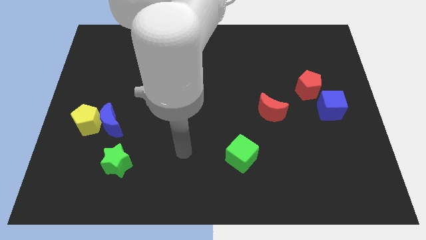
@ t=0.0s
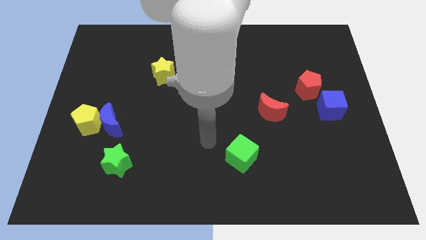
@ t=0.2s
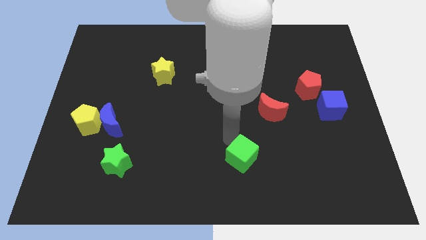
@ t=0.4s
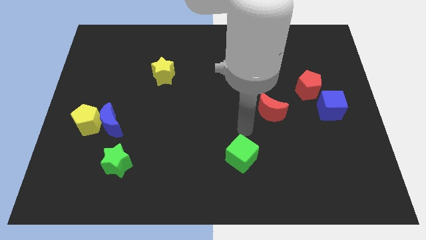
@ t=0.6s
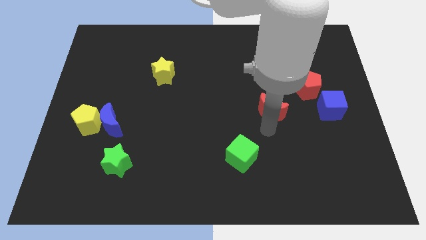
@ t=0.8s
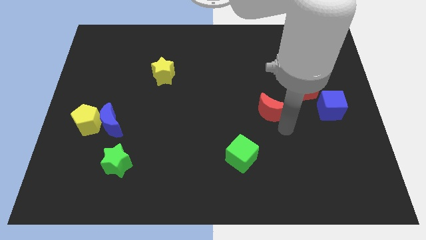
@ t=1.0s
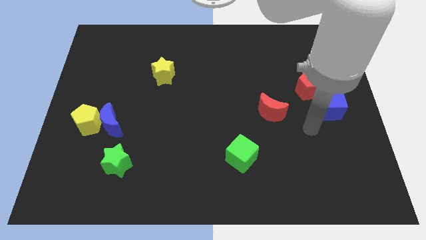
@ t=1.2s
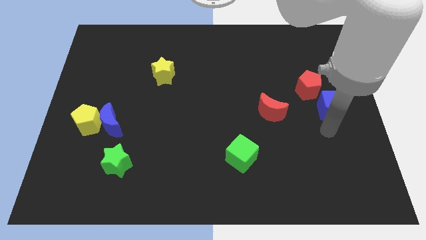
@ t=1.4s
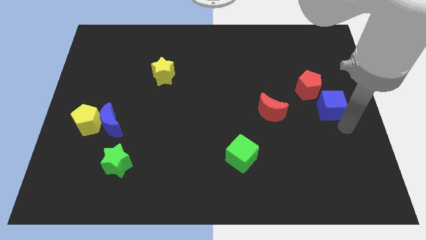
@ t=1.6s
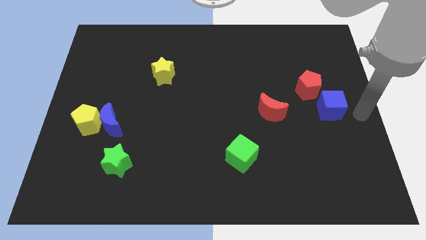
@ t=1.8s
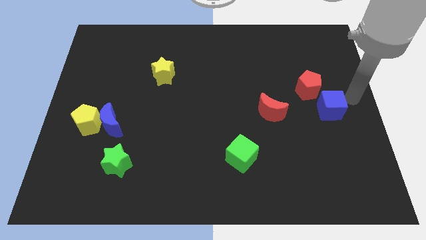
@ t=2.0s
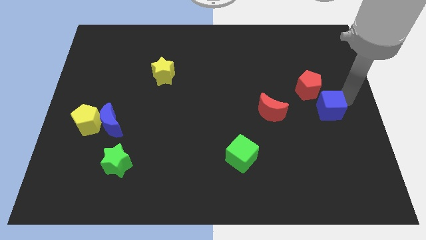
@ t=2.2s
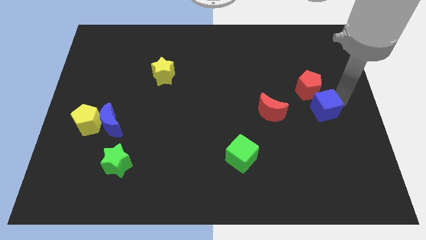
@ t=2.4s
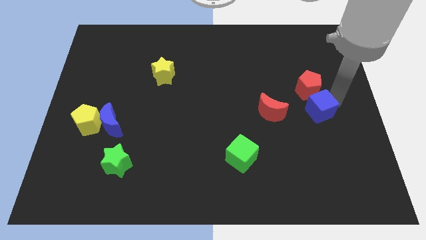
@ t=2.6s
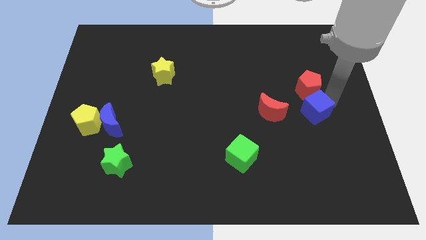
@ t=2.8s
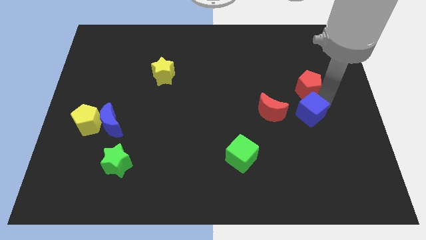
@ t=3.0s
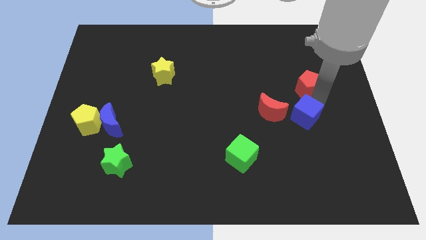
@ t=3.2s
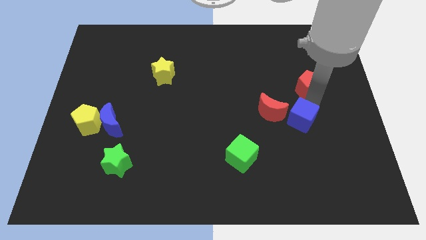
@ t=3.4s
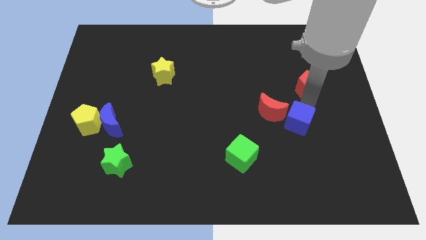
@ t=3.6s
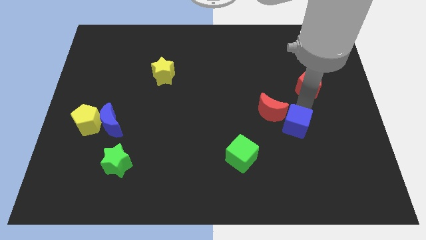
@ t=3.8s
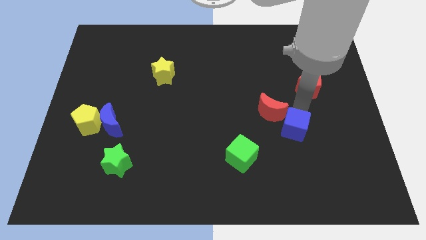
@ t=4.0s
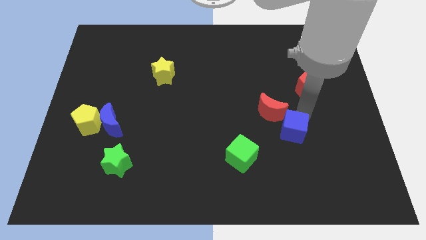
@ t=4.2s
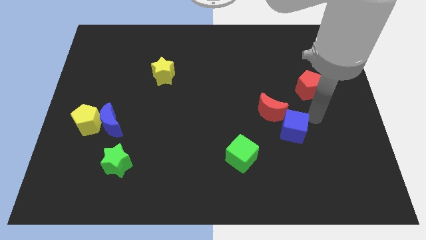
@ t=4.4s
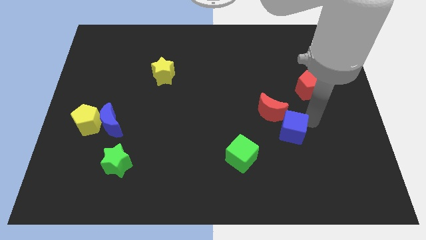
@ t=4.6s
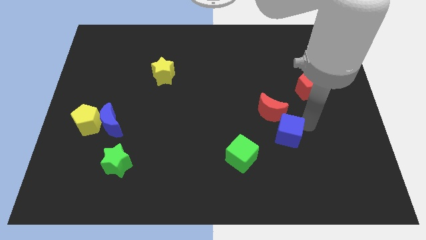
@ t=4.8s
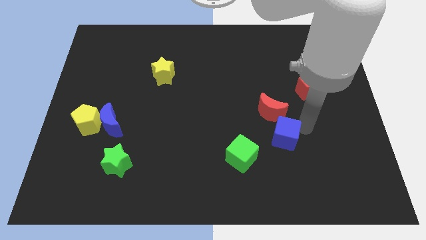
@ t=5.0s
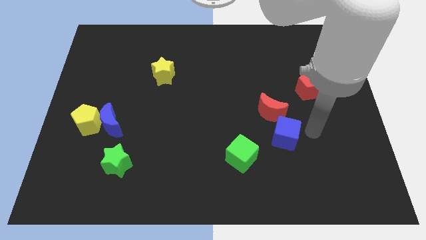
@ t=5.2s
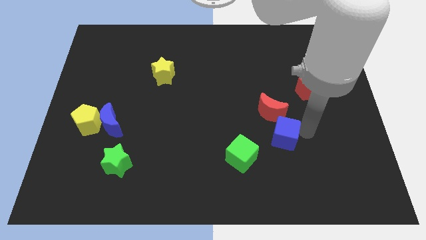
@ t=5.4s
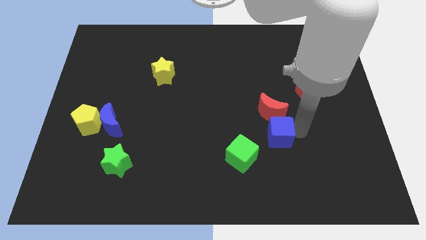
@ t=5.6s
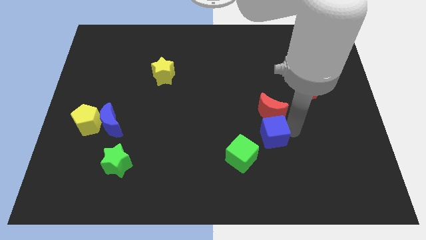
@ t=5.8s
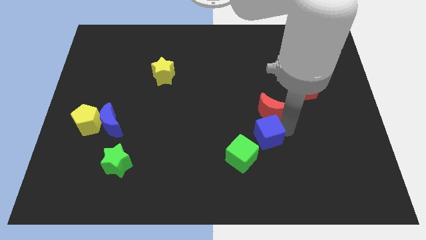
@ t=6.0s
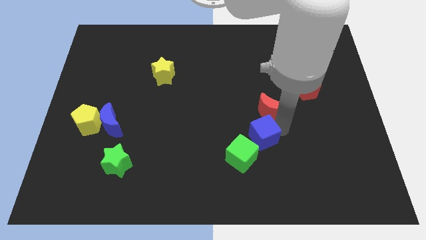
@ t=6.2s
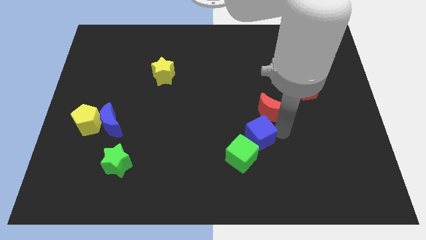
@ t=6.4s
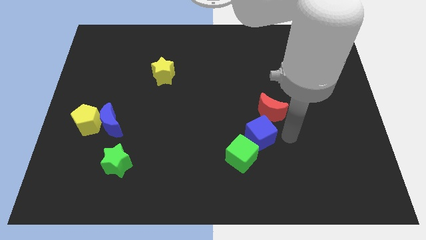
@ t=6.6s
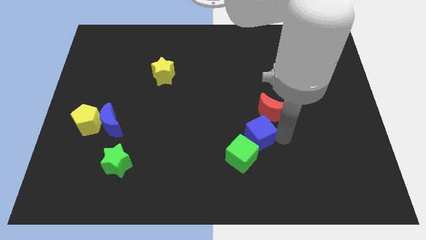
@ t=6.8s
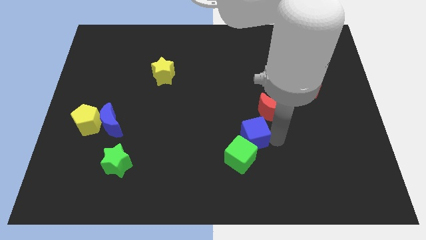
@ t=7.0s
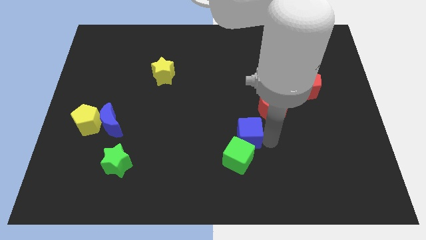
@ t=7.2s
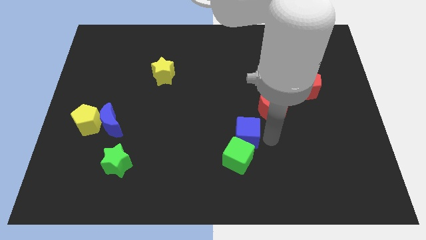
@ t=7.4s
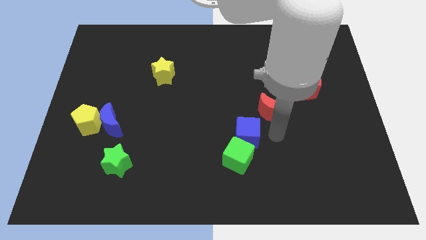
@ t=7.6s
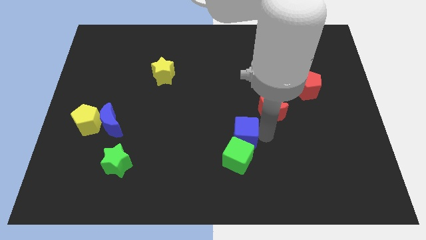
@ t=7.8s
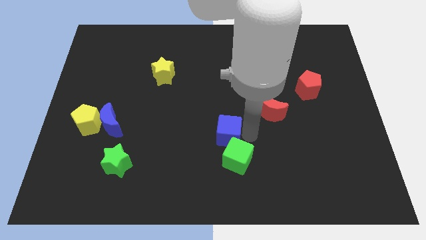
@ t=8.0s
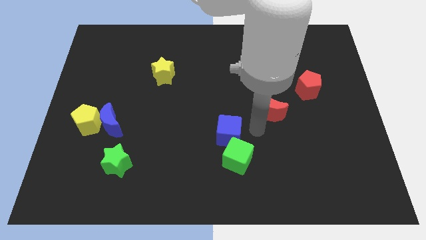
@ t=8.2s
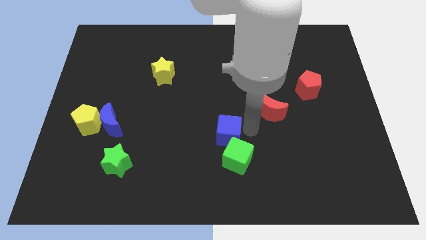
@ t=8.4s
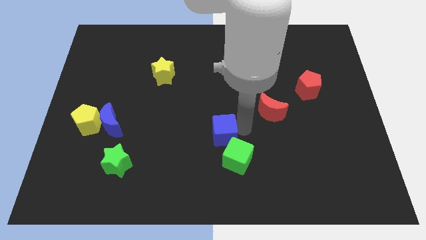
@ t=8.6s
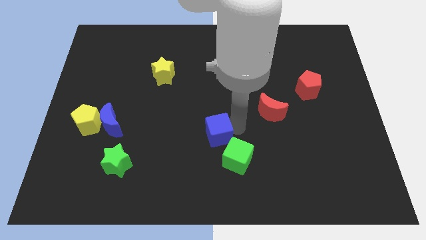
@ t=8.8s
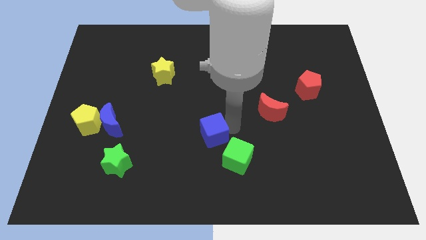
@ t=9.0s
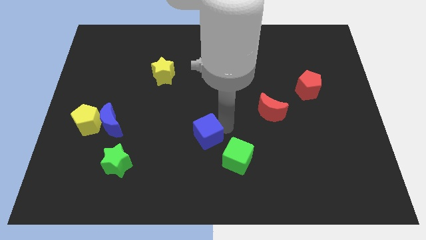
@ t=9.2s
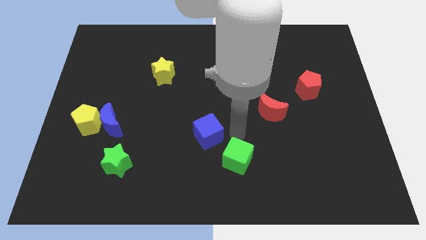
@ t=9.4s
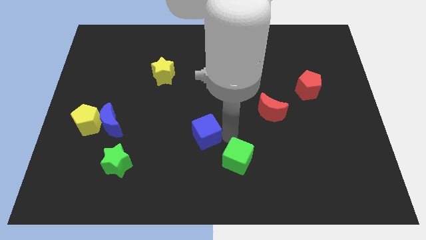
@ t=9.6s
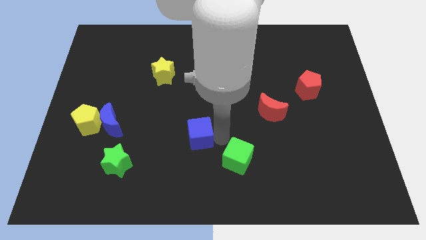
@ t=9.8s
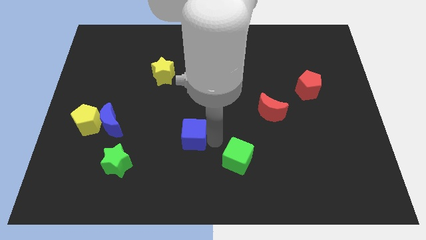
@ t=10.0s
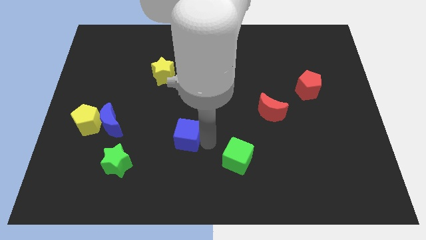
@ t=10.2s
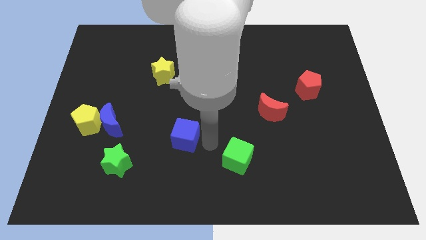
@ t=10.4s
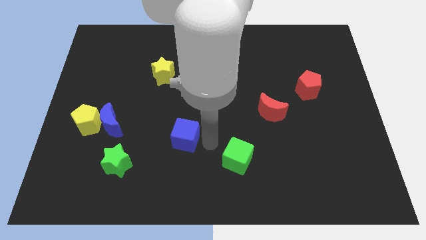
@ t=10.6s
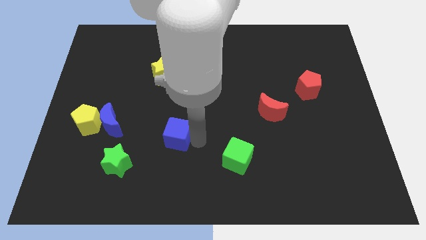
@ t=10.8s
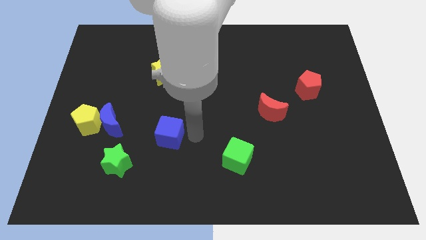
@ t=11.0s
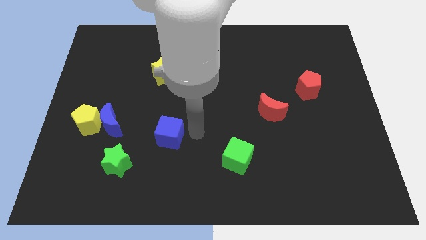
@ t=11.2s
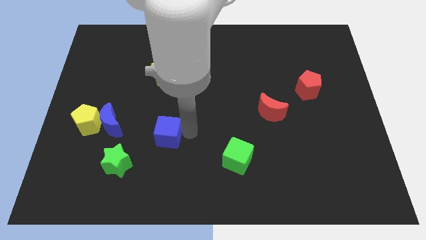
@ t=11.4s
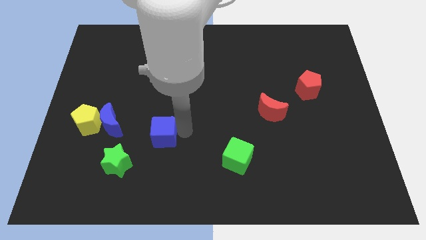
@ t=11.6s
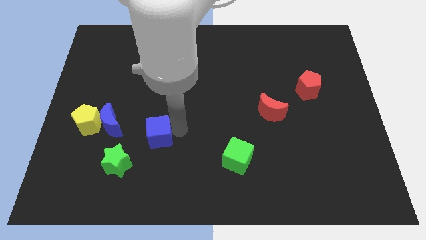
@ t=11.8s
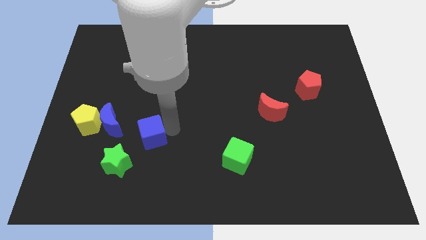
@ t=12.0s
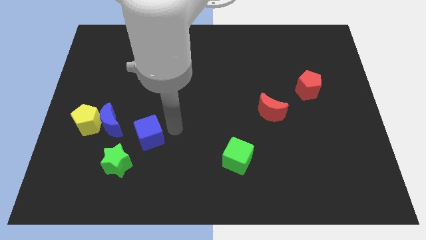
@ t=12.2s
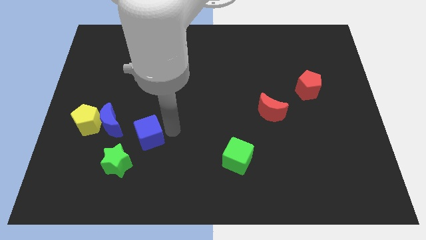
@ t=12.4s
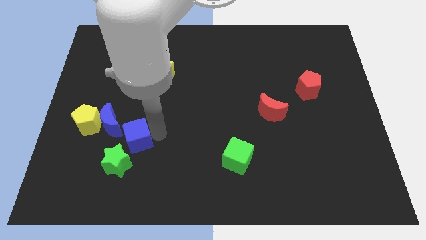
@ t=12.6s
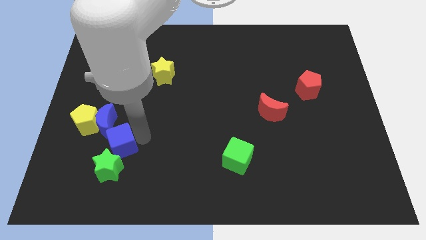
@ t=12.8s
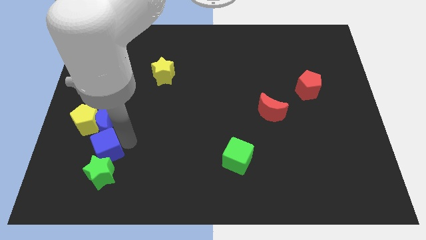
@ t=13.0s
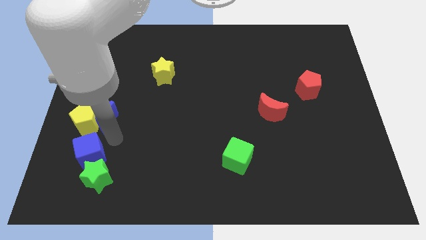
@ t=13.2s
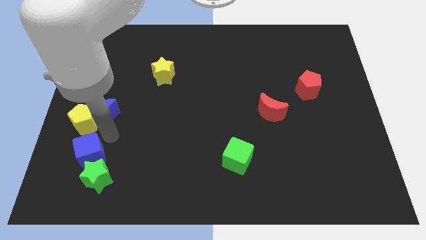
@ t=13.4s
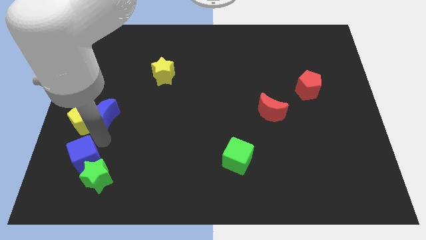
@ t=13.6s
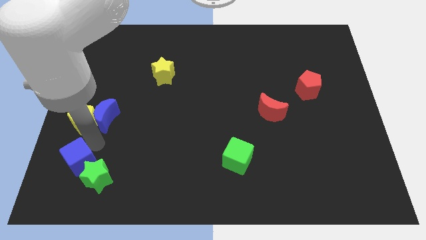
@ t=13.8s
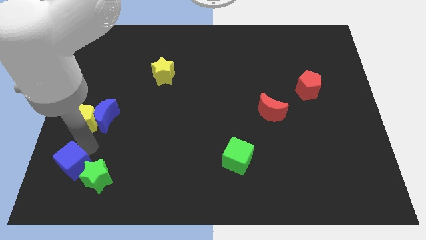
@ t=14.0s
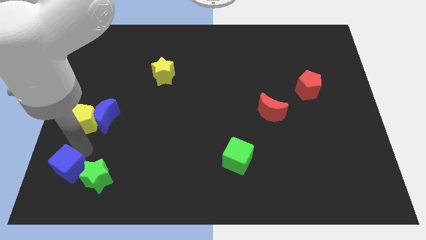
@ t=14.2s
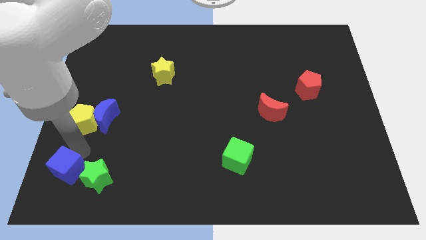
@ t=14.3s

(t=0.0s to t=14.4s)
slide the blue cube to the bottom left corner

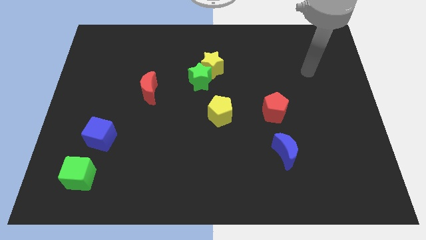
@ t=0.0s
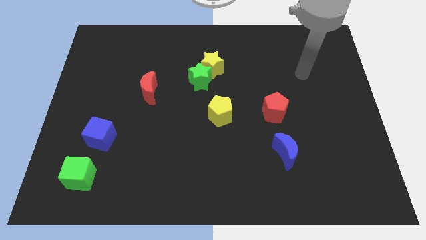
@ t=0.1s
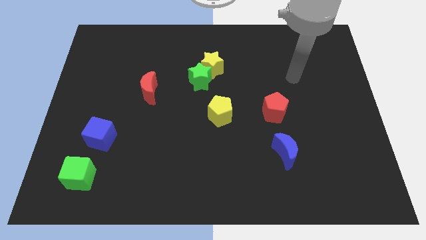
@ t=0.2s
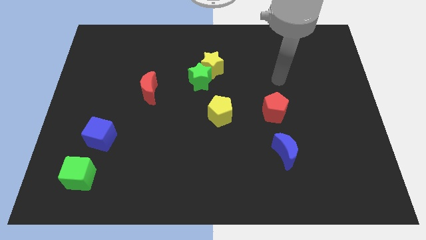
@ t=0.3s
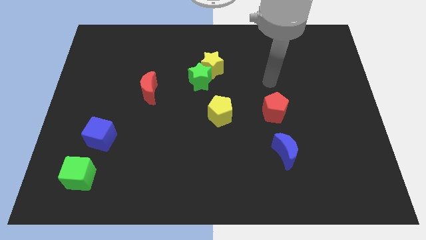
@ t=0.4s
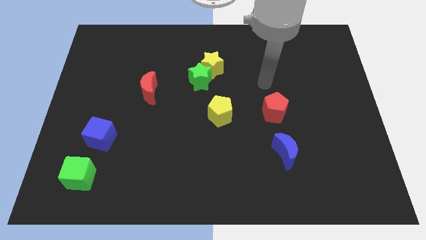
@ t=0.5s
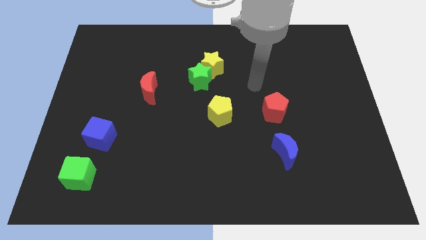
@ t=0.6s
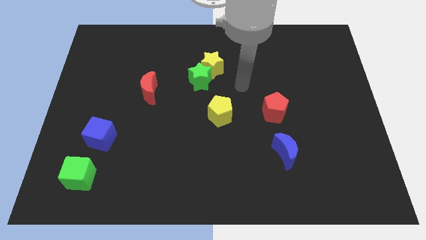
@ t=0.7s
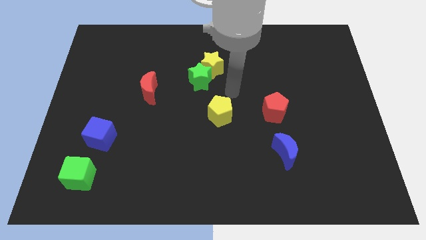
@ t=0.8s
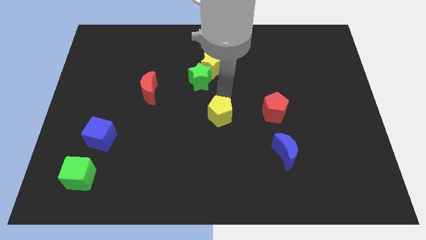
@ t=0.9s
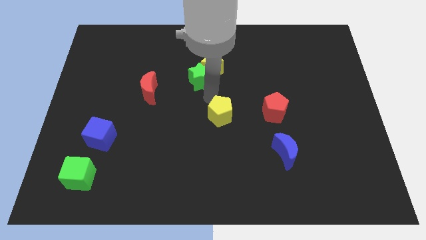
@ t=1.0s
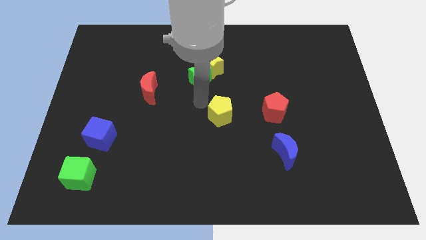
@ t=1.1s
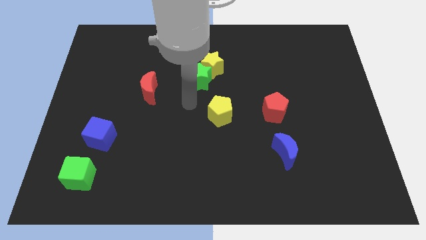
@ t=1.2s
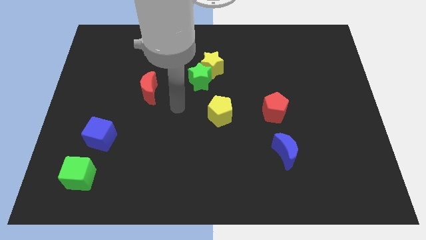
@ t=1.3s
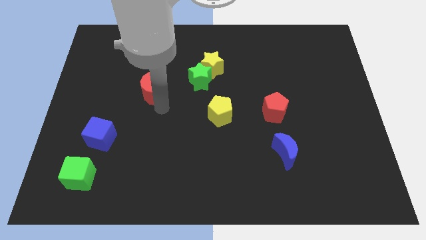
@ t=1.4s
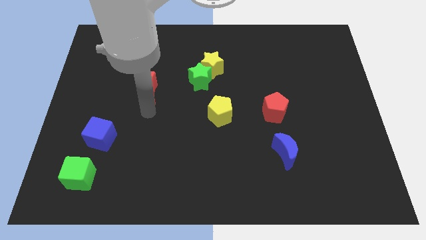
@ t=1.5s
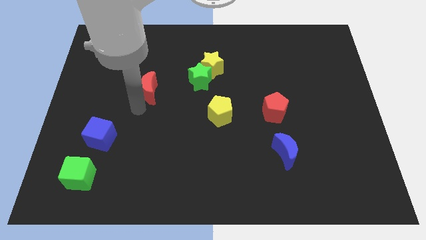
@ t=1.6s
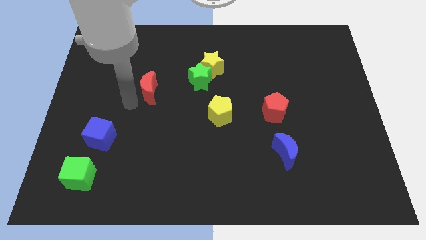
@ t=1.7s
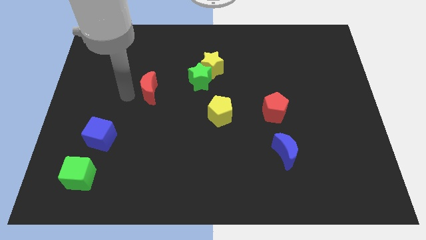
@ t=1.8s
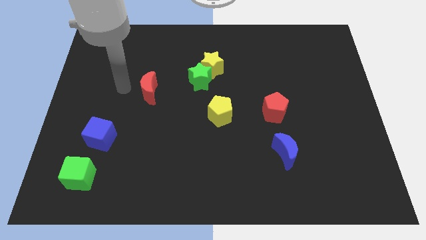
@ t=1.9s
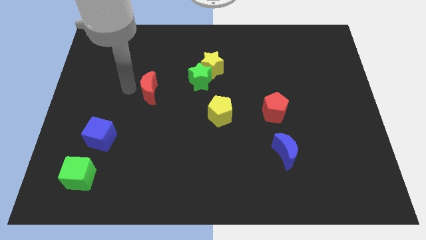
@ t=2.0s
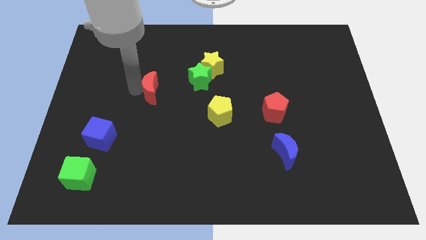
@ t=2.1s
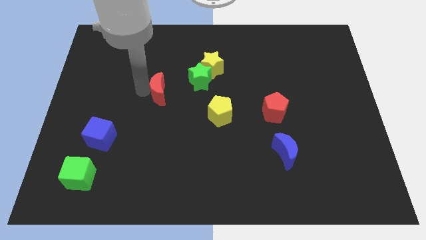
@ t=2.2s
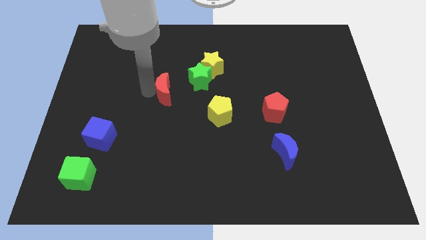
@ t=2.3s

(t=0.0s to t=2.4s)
move the red moon to the center of the board
